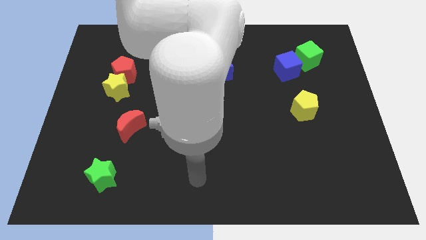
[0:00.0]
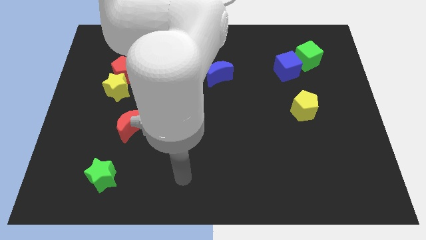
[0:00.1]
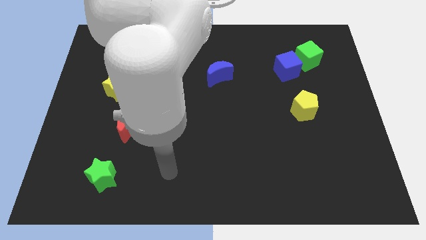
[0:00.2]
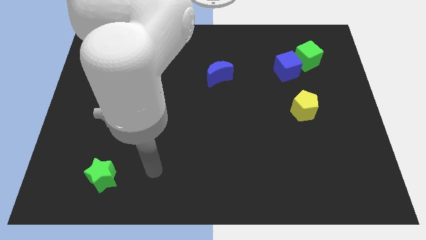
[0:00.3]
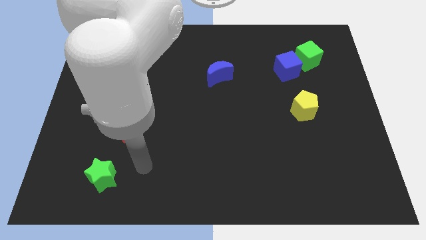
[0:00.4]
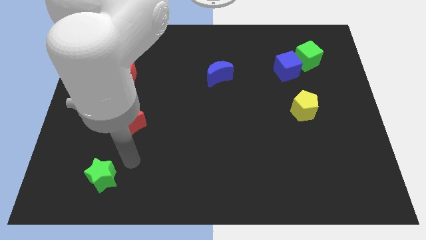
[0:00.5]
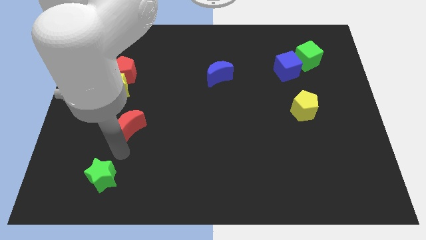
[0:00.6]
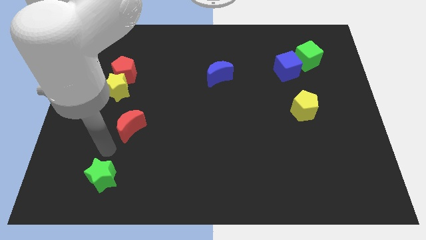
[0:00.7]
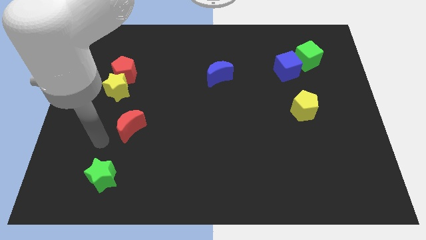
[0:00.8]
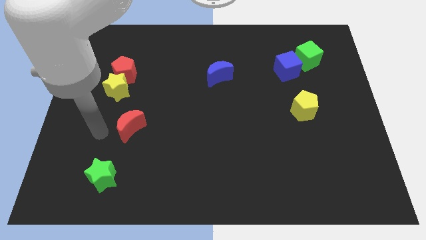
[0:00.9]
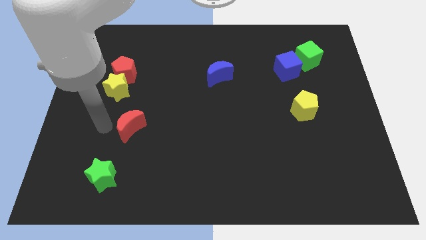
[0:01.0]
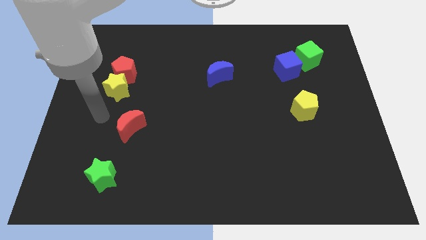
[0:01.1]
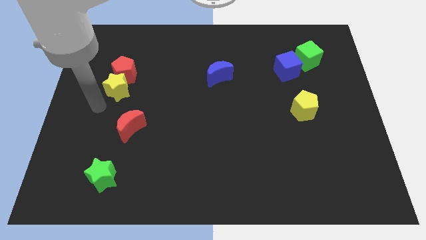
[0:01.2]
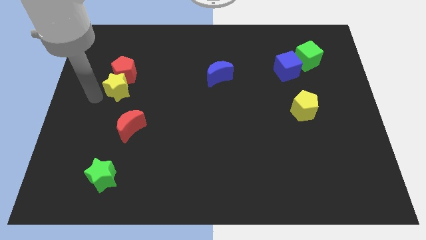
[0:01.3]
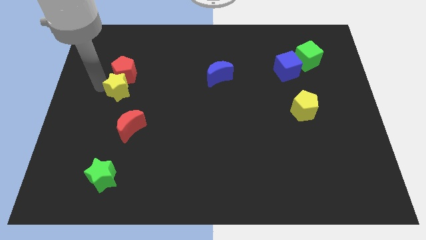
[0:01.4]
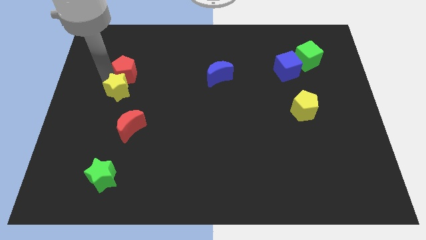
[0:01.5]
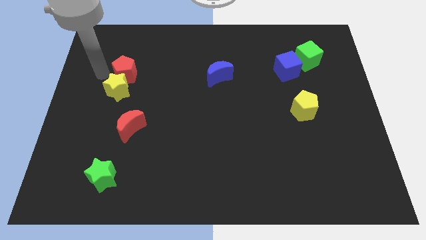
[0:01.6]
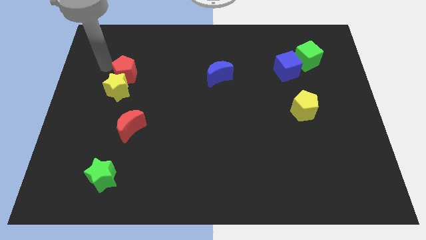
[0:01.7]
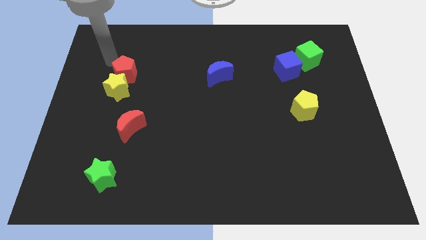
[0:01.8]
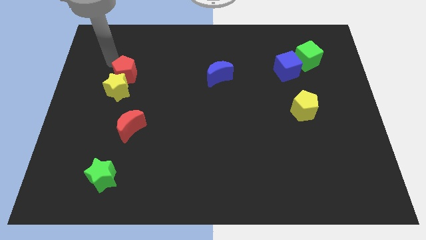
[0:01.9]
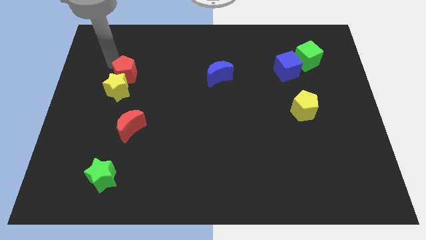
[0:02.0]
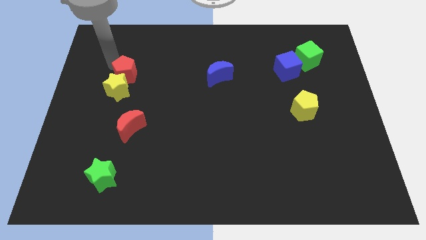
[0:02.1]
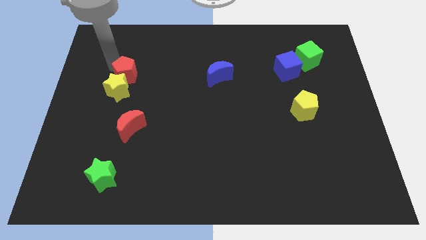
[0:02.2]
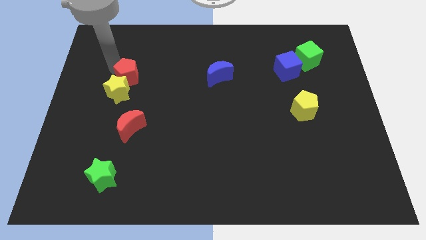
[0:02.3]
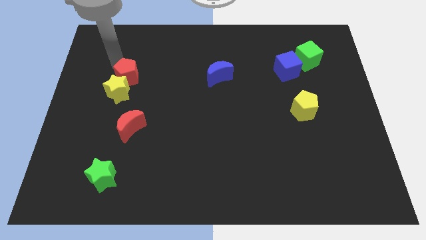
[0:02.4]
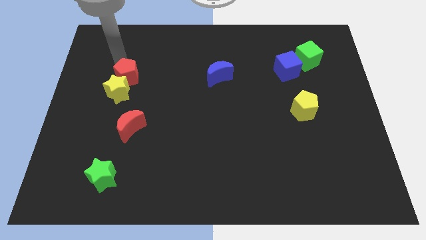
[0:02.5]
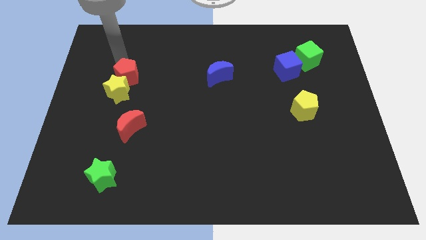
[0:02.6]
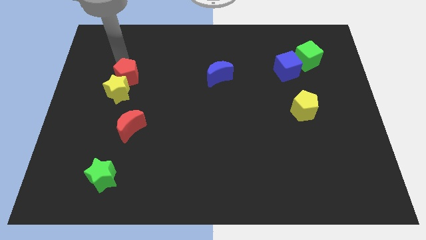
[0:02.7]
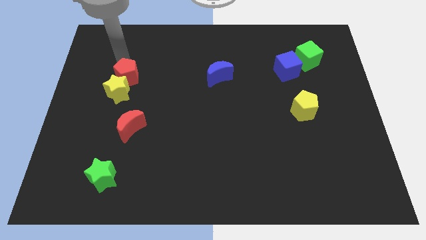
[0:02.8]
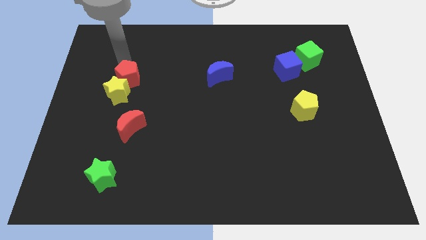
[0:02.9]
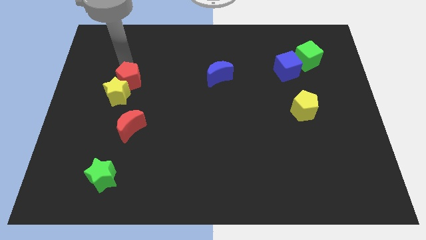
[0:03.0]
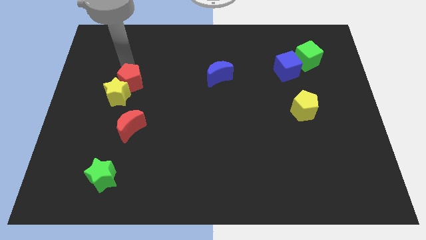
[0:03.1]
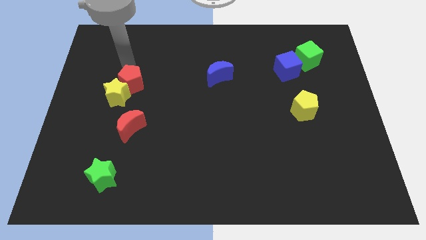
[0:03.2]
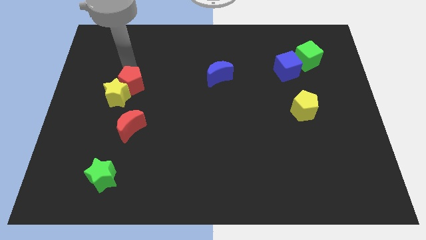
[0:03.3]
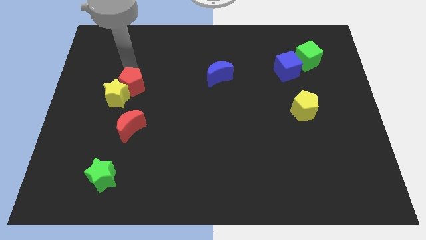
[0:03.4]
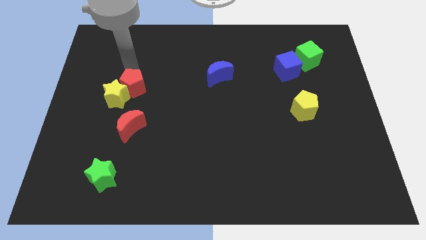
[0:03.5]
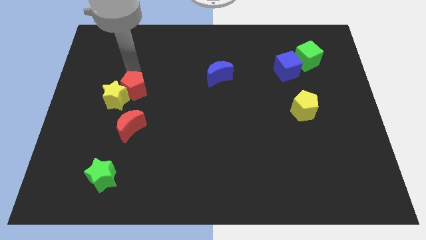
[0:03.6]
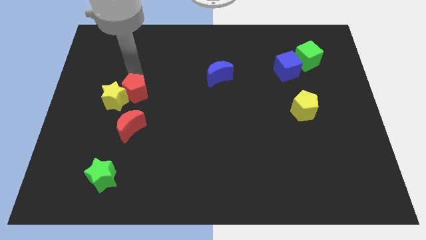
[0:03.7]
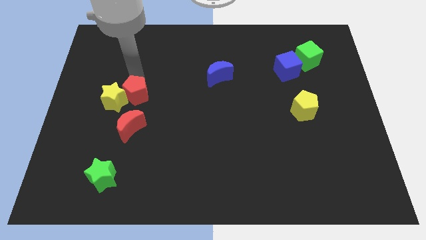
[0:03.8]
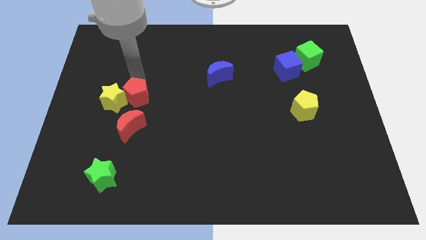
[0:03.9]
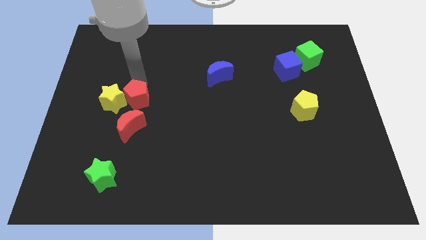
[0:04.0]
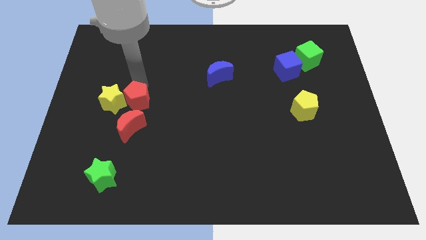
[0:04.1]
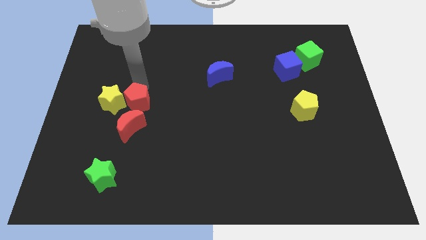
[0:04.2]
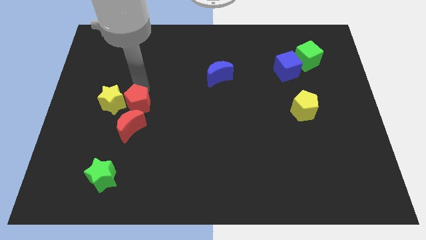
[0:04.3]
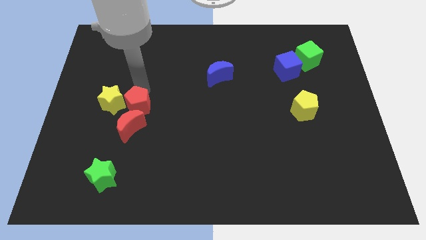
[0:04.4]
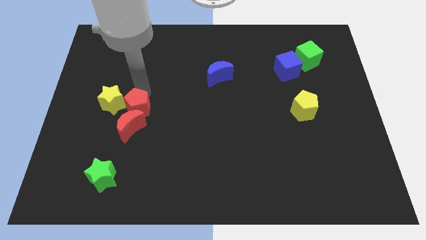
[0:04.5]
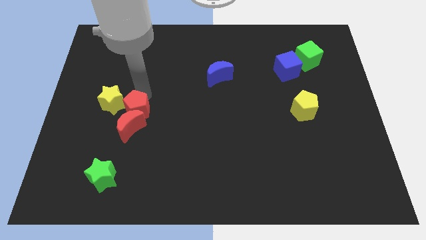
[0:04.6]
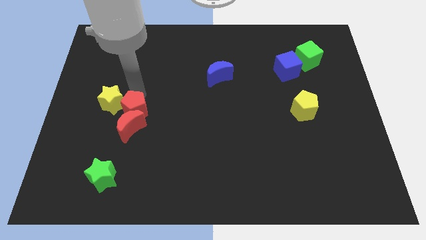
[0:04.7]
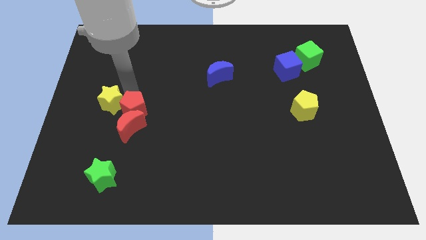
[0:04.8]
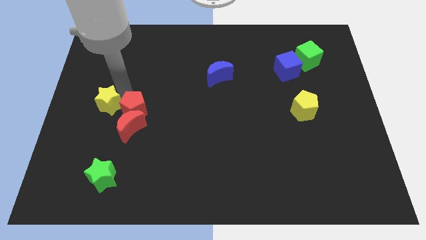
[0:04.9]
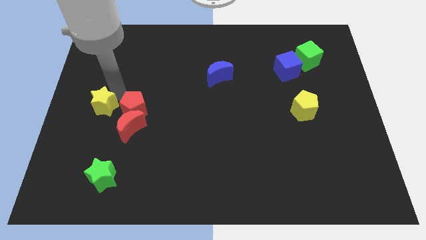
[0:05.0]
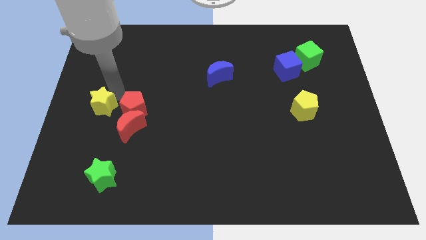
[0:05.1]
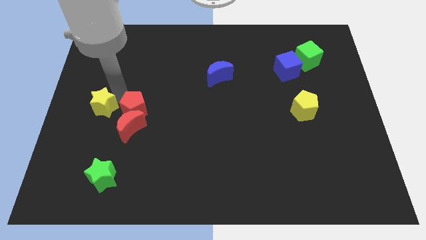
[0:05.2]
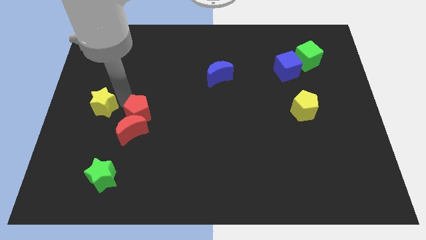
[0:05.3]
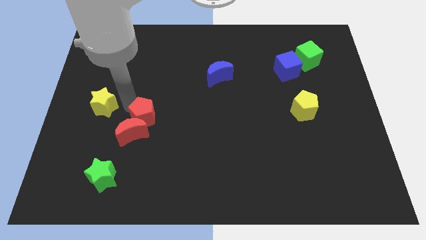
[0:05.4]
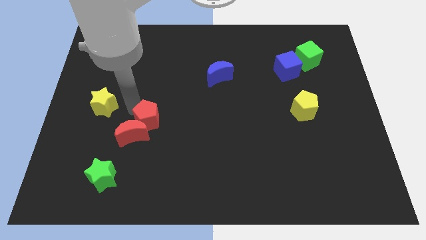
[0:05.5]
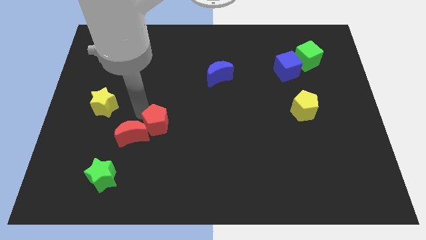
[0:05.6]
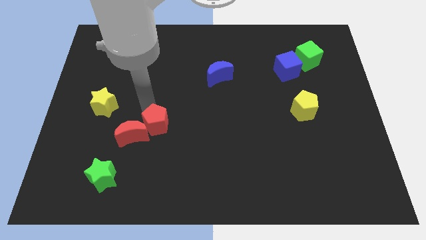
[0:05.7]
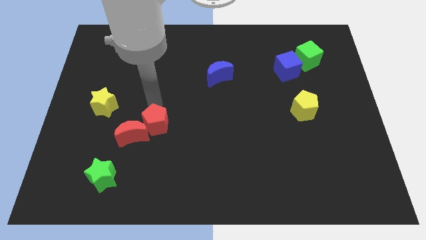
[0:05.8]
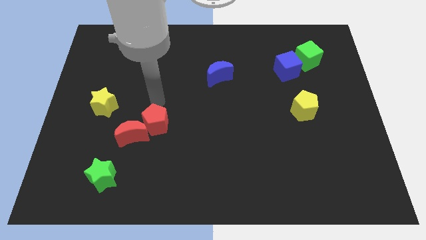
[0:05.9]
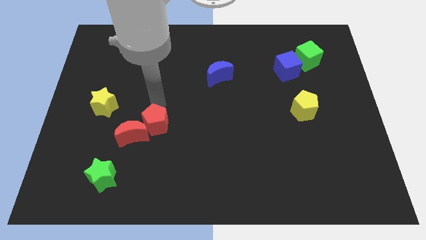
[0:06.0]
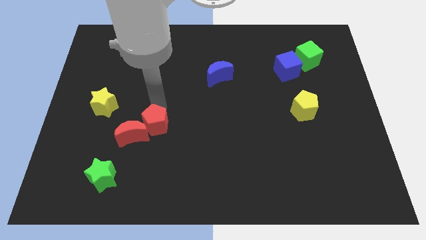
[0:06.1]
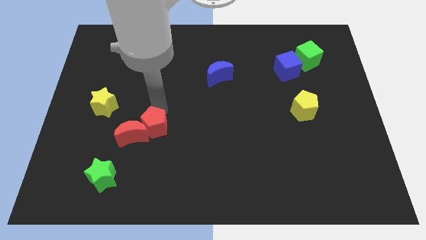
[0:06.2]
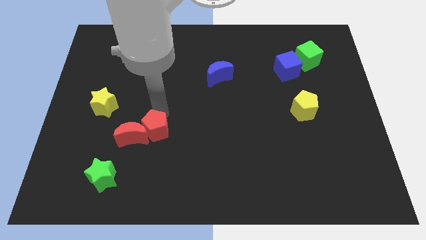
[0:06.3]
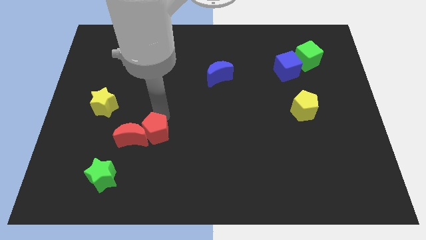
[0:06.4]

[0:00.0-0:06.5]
push the red pentagon to the bottom right side of the red moon

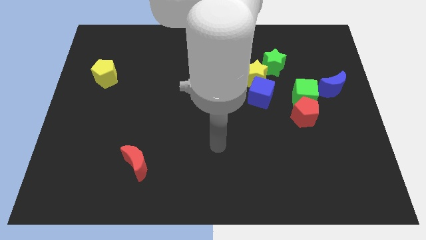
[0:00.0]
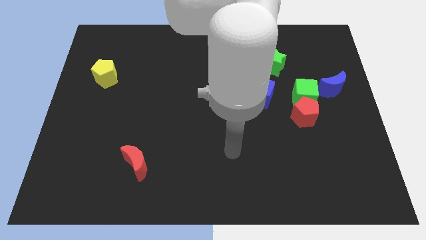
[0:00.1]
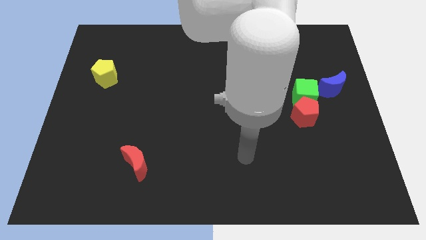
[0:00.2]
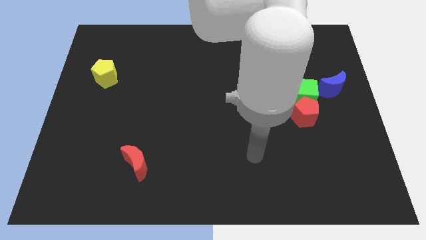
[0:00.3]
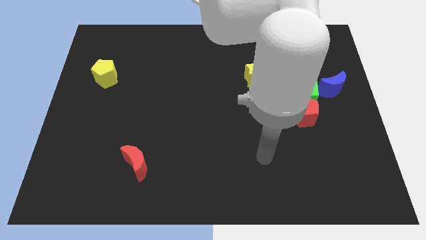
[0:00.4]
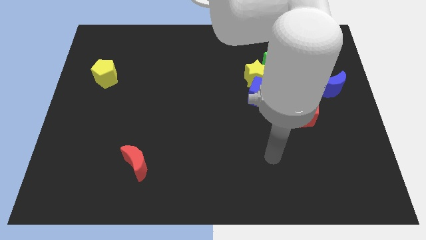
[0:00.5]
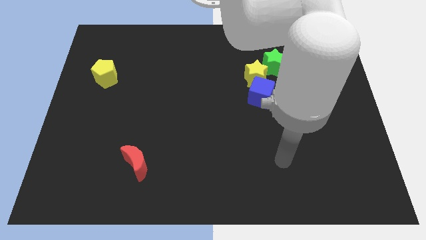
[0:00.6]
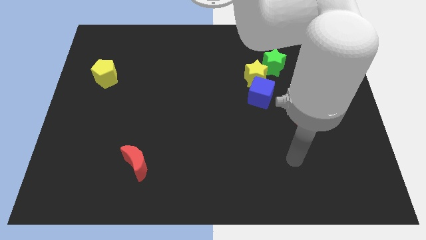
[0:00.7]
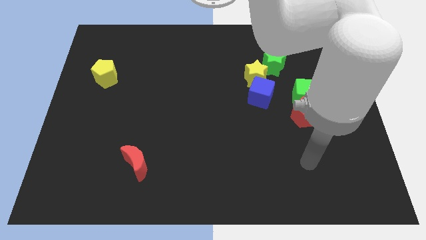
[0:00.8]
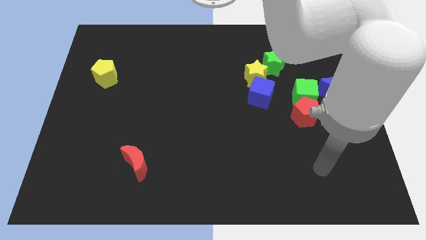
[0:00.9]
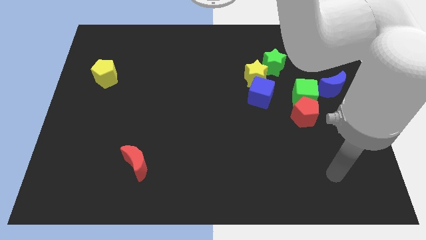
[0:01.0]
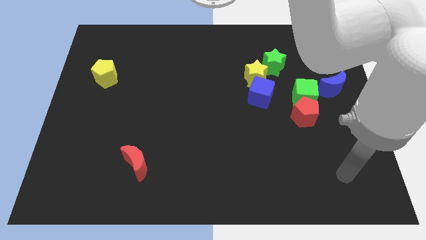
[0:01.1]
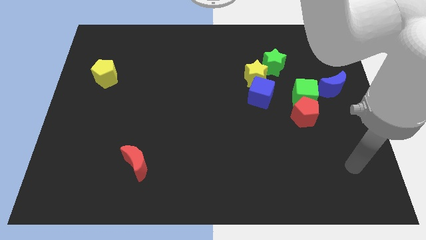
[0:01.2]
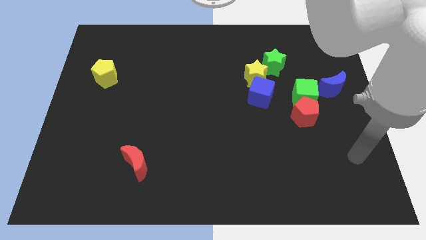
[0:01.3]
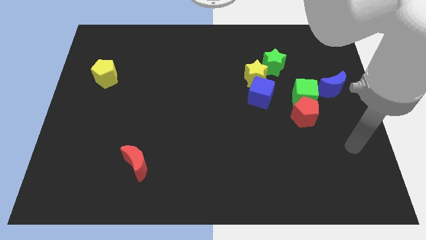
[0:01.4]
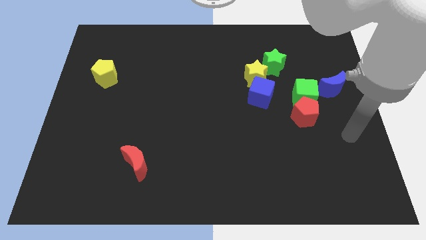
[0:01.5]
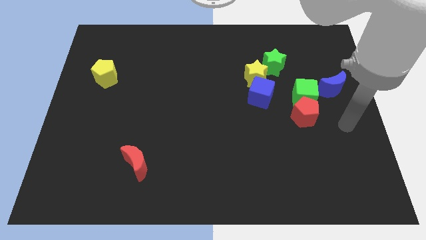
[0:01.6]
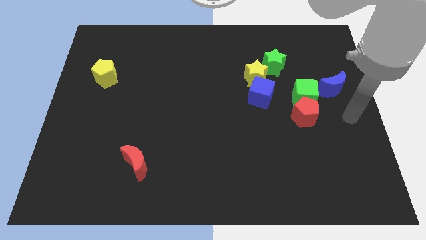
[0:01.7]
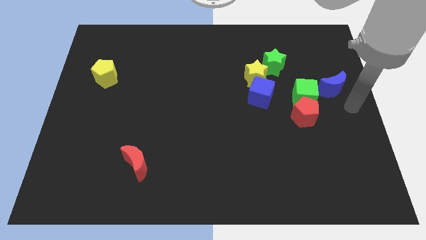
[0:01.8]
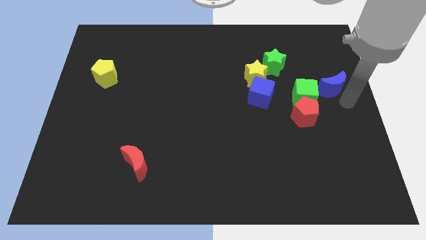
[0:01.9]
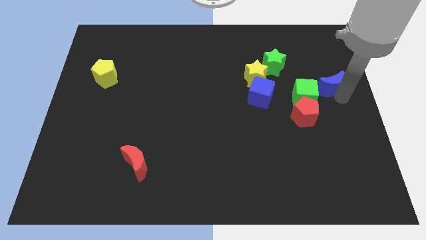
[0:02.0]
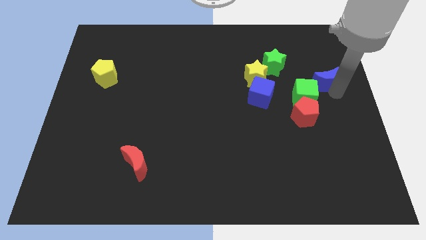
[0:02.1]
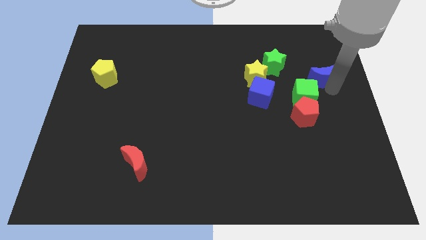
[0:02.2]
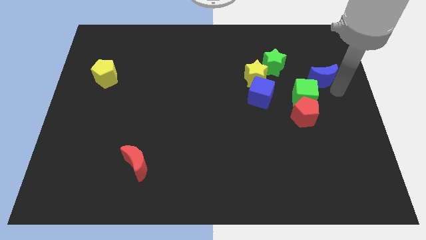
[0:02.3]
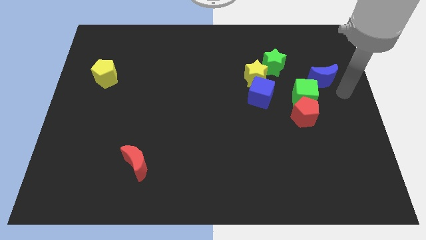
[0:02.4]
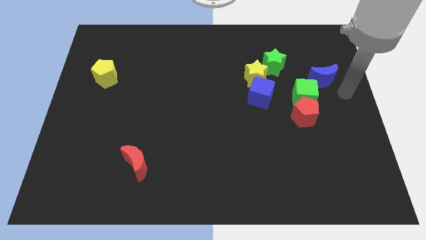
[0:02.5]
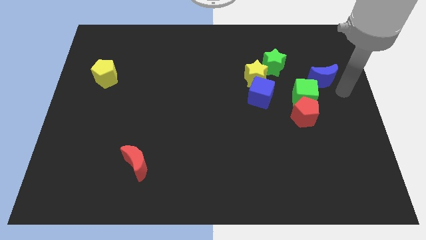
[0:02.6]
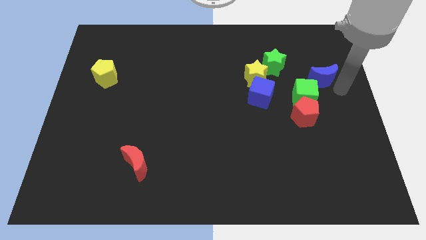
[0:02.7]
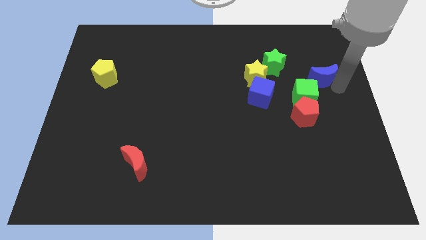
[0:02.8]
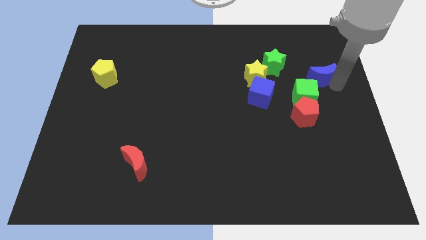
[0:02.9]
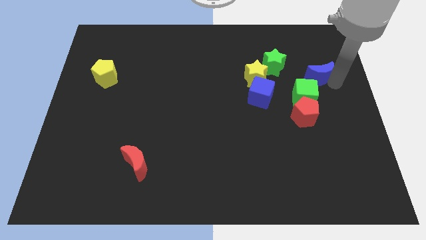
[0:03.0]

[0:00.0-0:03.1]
push the blue moon to the top side of the green cube
